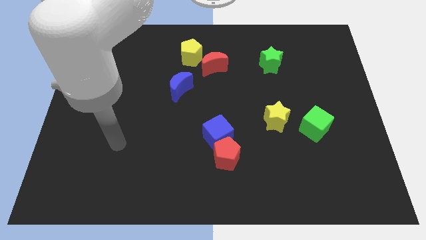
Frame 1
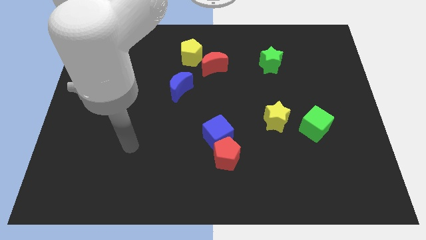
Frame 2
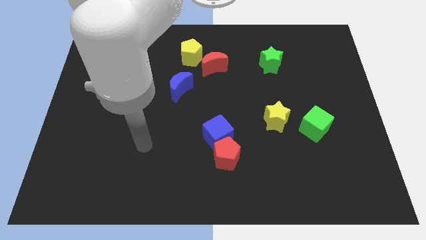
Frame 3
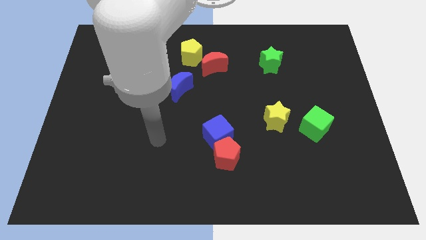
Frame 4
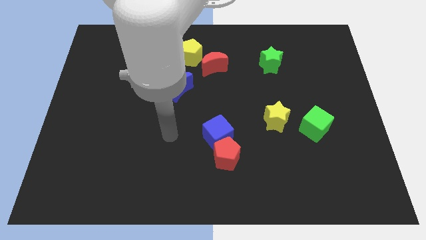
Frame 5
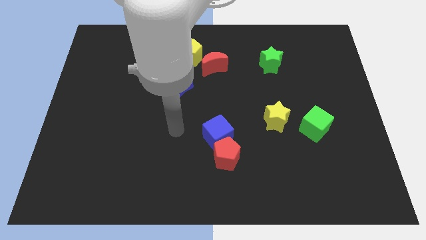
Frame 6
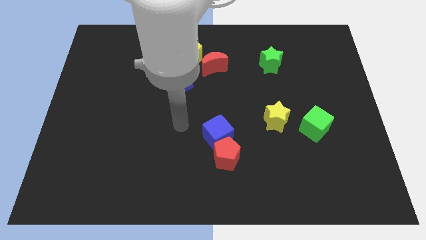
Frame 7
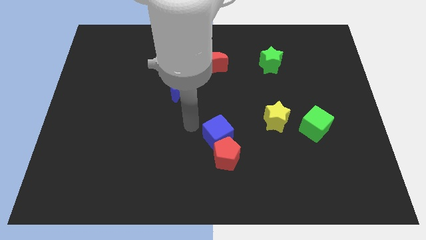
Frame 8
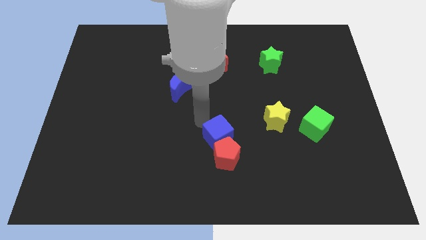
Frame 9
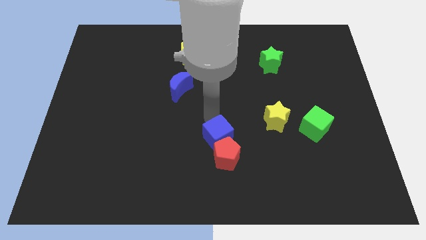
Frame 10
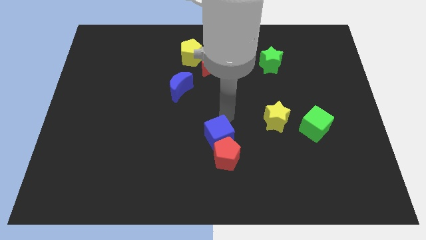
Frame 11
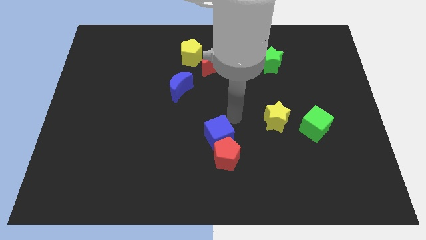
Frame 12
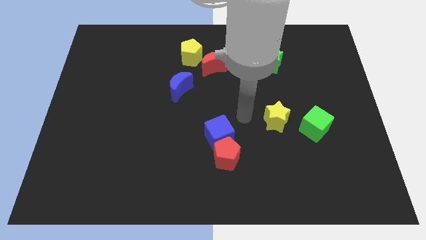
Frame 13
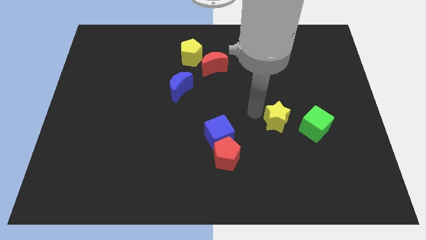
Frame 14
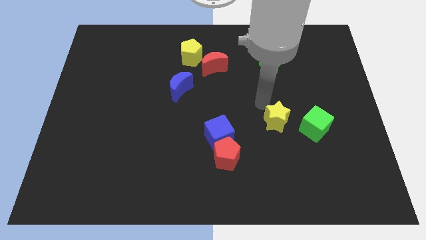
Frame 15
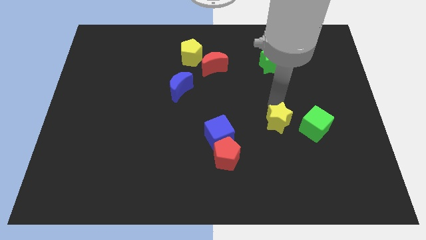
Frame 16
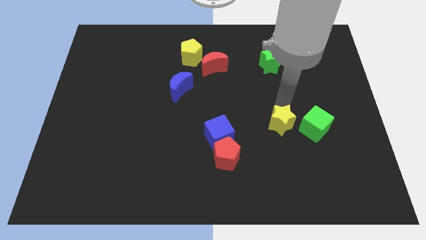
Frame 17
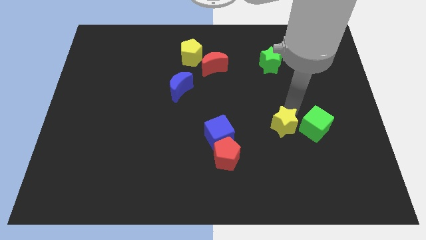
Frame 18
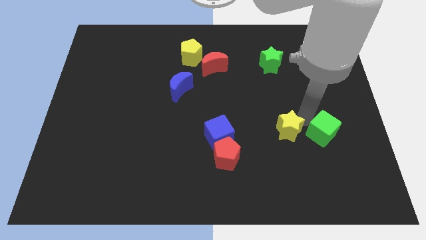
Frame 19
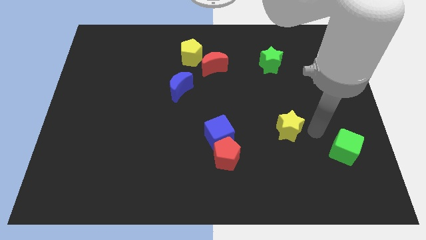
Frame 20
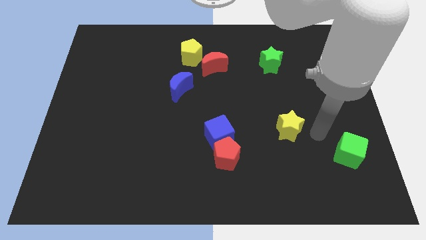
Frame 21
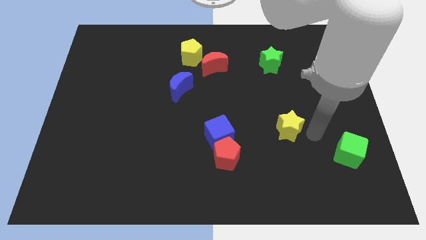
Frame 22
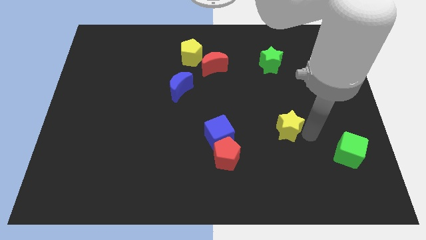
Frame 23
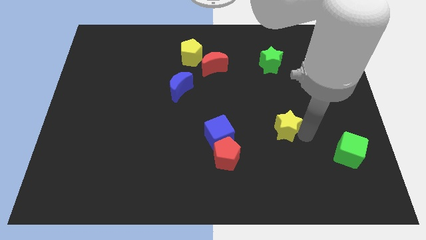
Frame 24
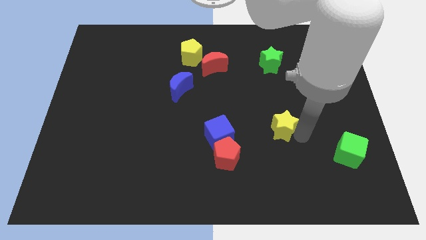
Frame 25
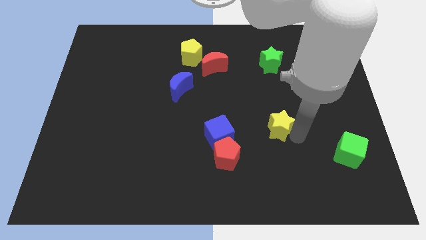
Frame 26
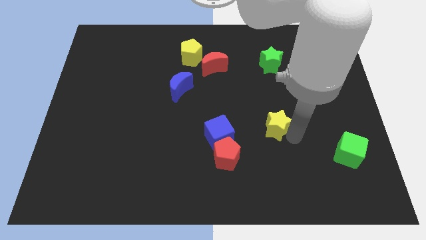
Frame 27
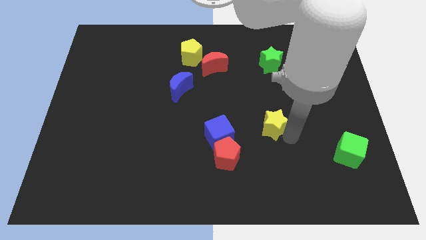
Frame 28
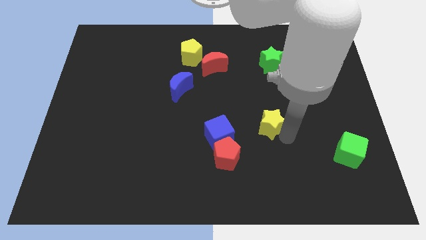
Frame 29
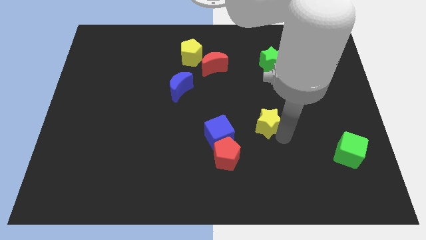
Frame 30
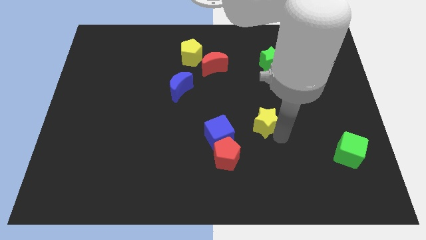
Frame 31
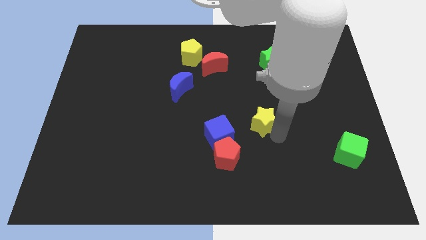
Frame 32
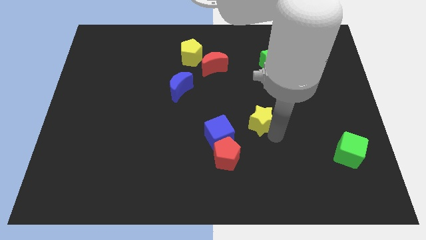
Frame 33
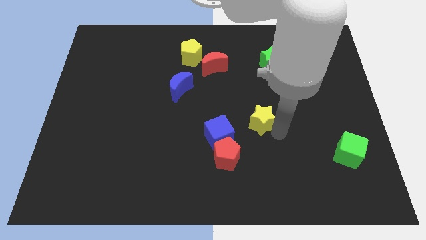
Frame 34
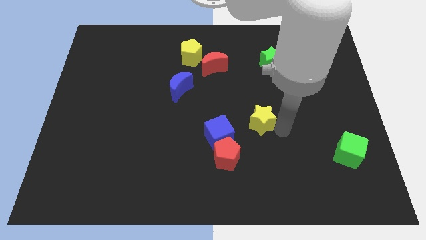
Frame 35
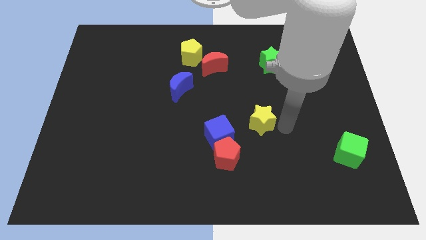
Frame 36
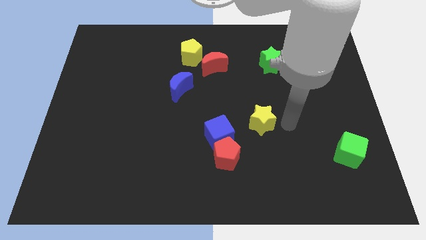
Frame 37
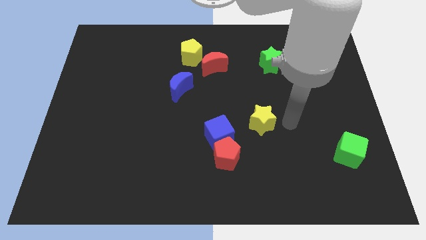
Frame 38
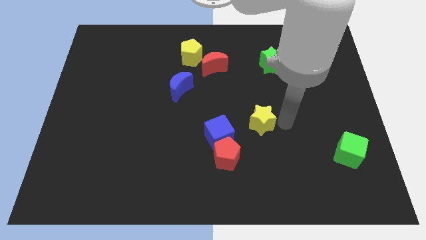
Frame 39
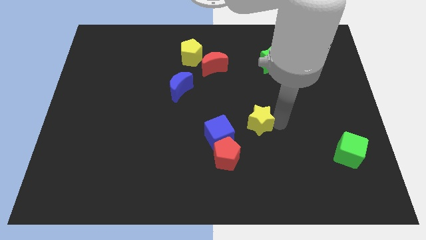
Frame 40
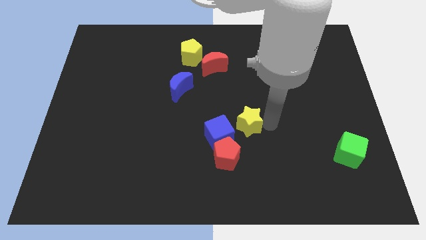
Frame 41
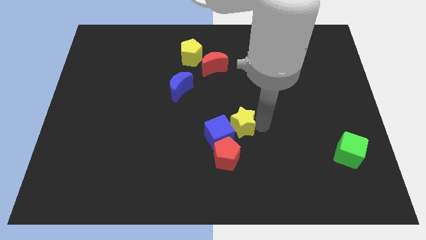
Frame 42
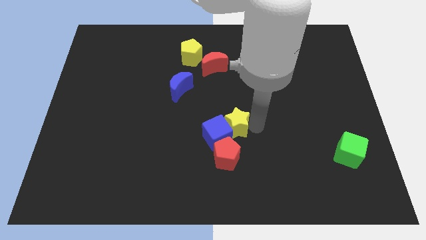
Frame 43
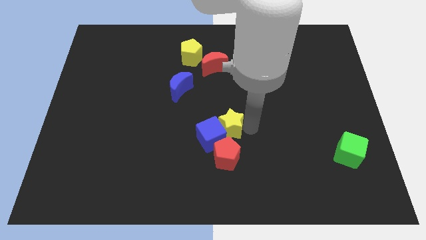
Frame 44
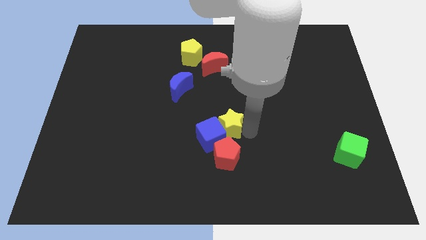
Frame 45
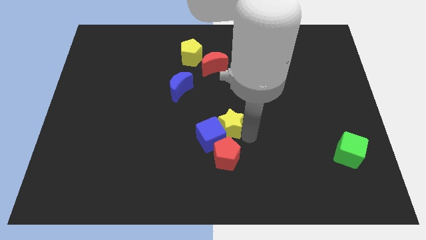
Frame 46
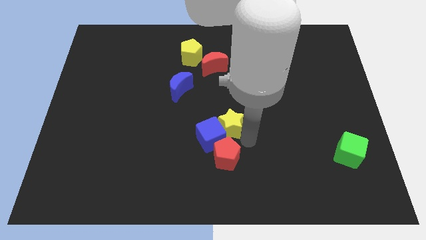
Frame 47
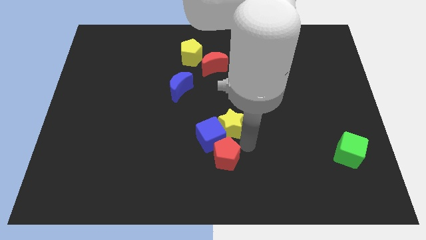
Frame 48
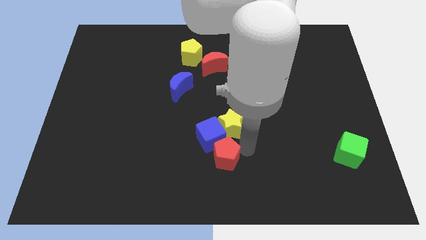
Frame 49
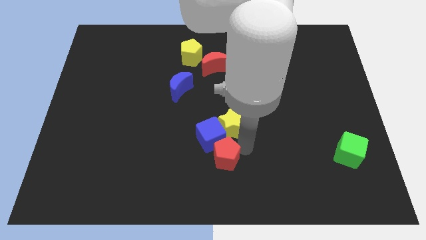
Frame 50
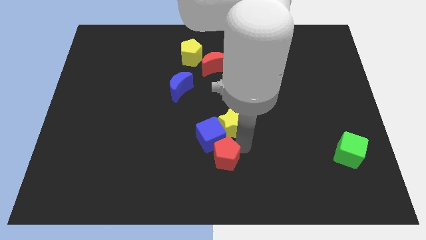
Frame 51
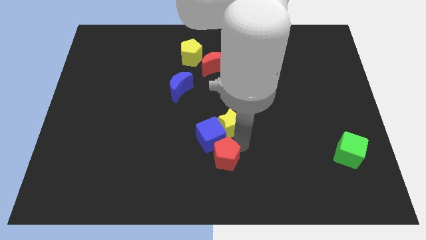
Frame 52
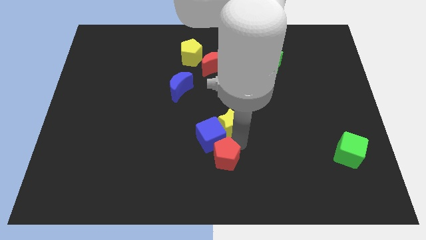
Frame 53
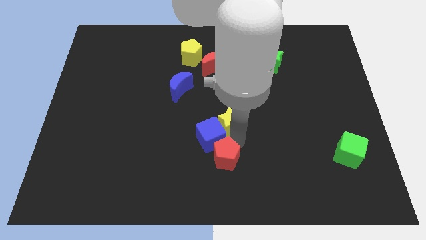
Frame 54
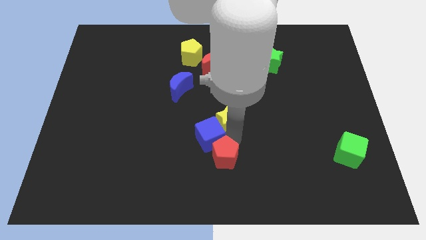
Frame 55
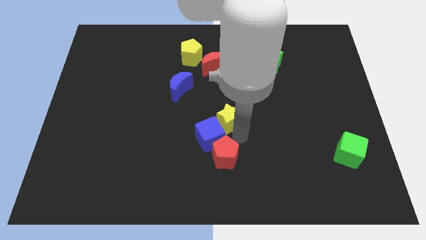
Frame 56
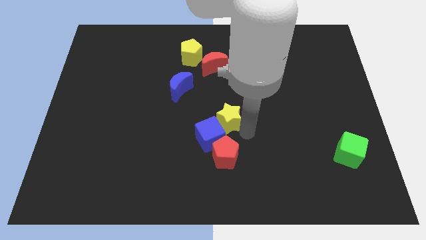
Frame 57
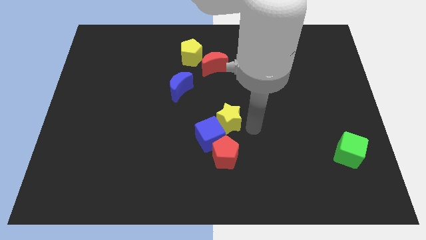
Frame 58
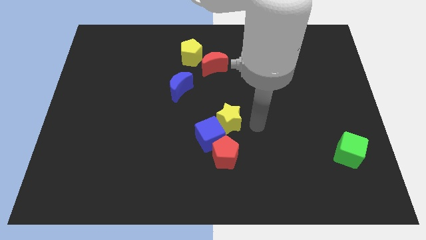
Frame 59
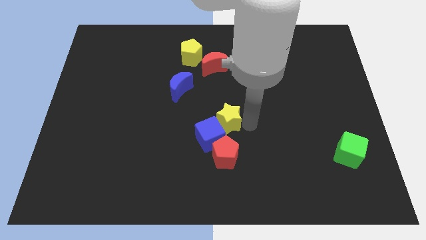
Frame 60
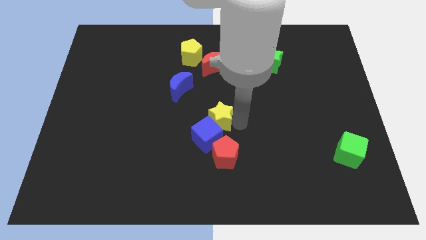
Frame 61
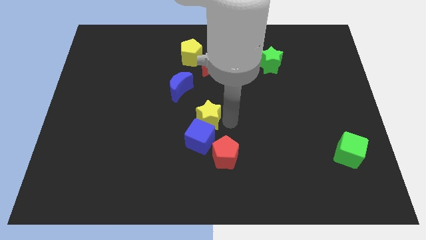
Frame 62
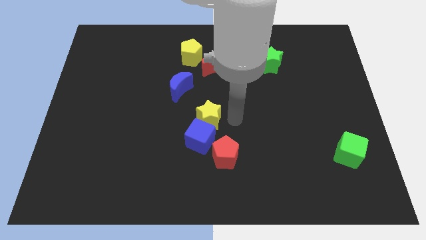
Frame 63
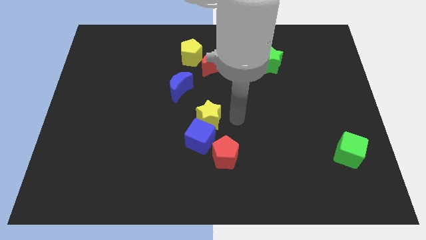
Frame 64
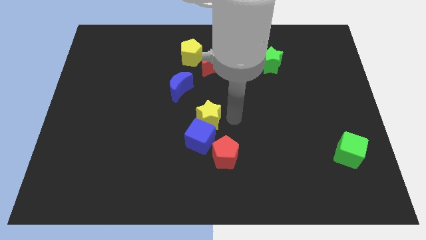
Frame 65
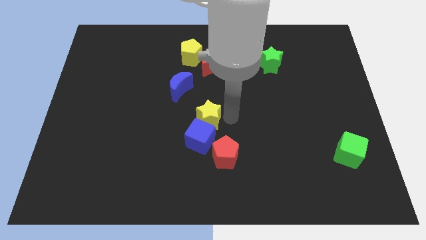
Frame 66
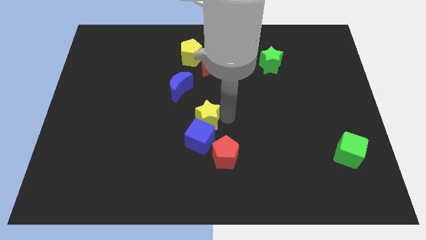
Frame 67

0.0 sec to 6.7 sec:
move the yellow star diagonally up and to the left of the blue cube
